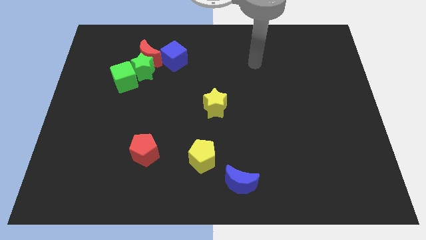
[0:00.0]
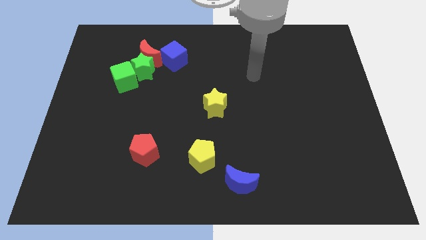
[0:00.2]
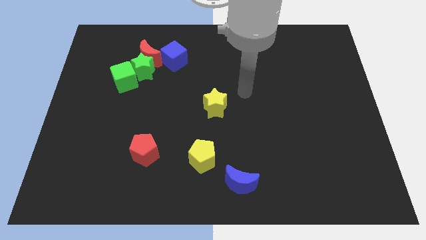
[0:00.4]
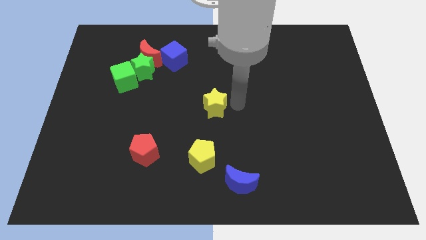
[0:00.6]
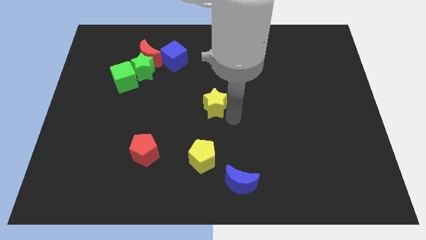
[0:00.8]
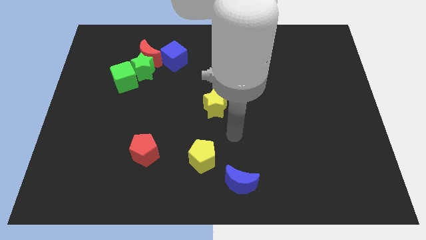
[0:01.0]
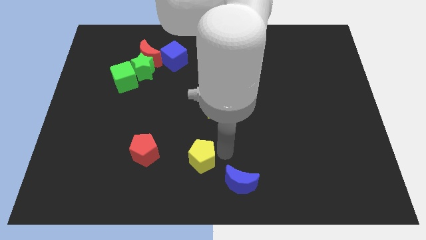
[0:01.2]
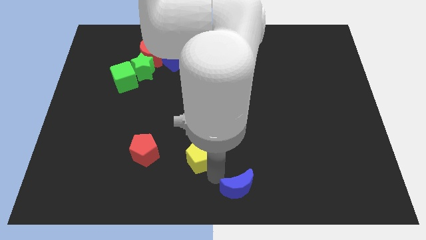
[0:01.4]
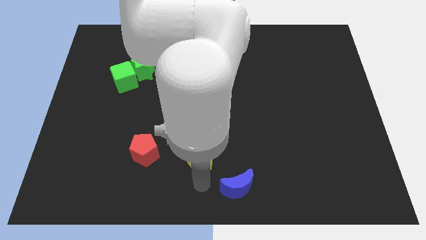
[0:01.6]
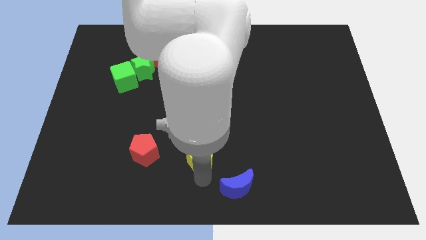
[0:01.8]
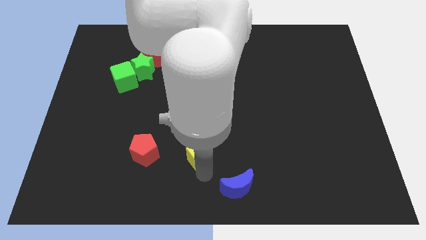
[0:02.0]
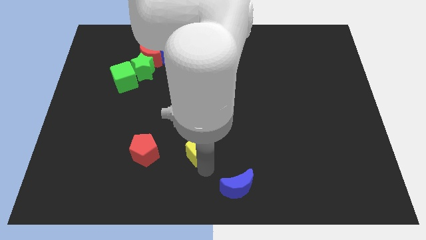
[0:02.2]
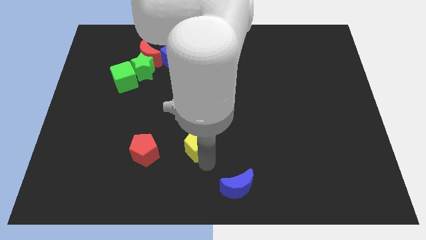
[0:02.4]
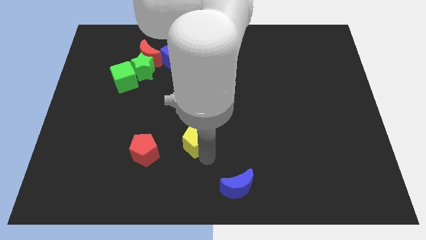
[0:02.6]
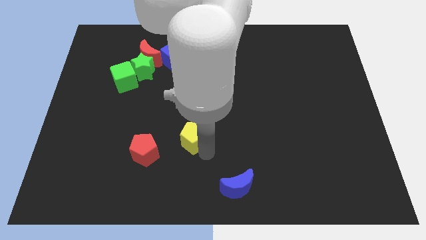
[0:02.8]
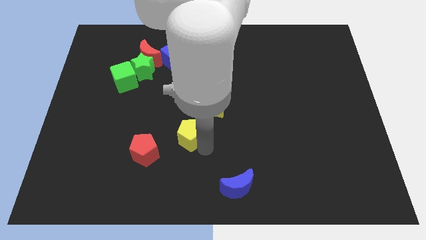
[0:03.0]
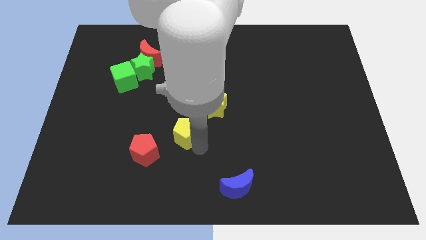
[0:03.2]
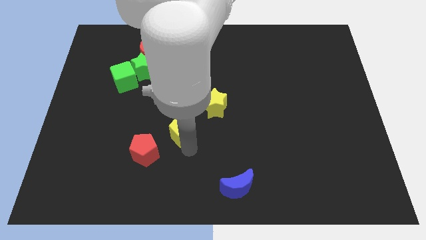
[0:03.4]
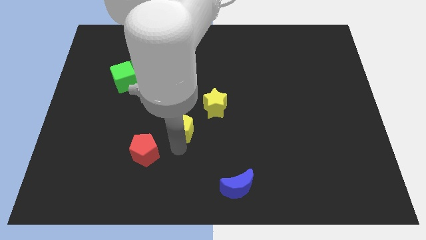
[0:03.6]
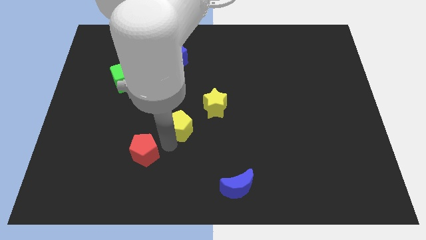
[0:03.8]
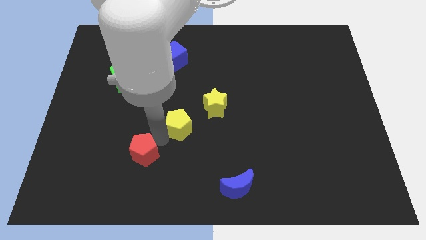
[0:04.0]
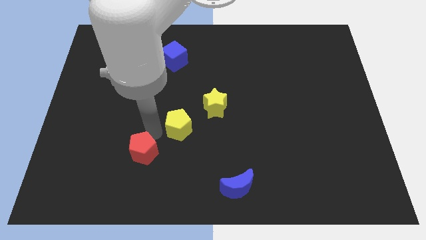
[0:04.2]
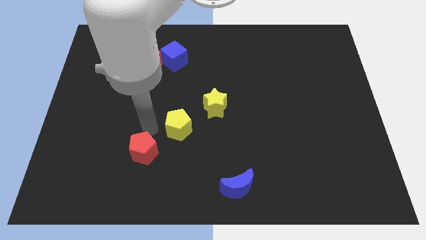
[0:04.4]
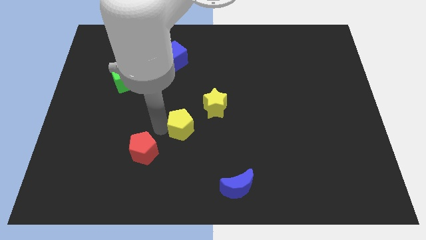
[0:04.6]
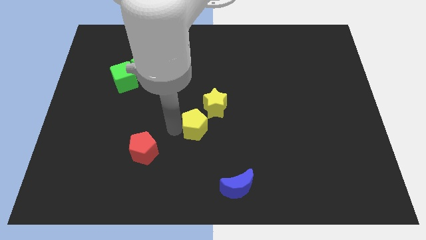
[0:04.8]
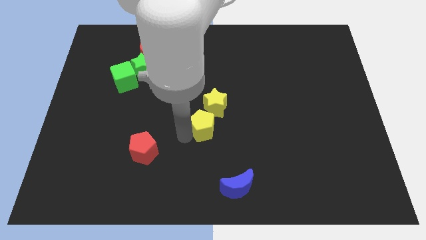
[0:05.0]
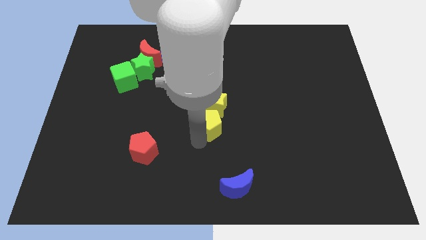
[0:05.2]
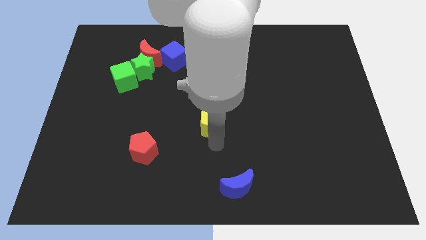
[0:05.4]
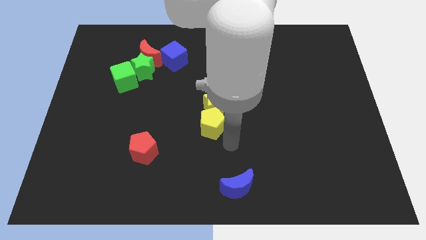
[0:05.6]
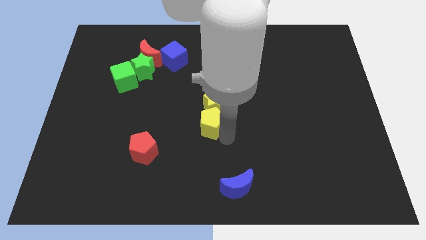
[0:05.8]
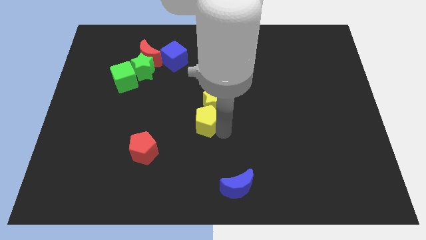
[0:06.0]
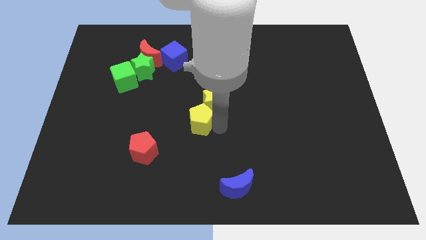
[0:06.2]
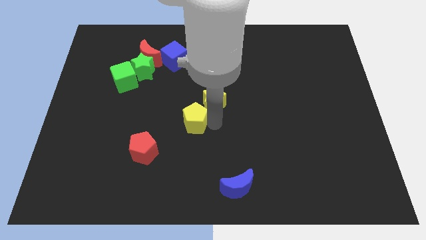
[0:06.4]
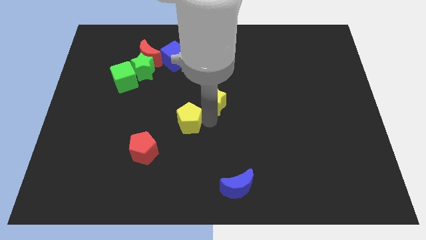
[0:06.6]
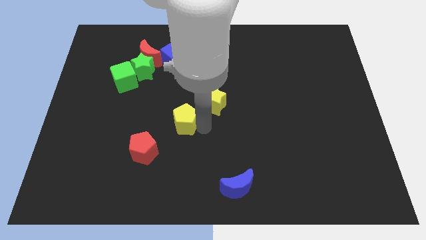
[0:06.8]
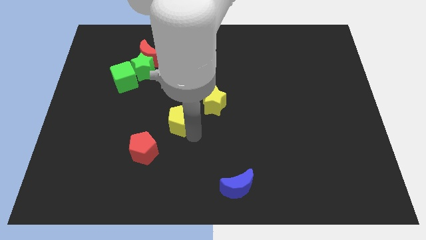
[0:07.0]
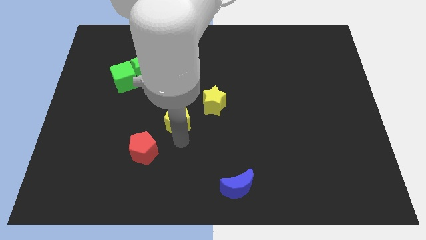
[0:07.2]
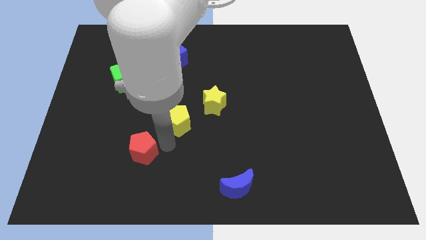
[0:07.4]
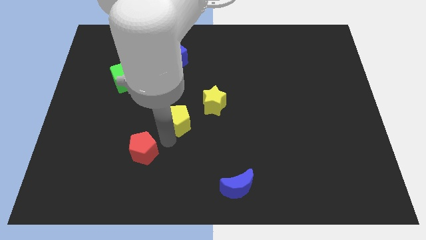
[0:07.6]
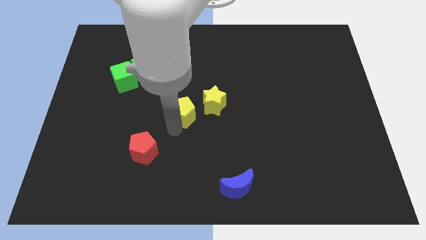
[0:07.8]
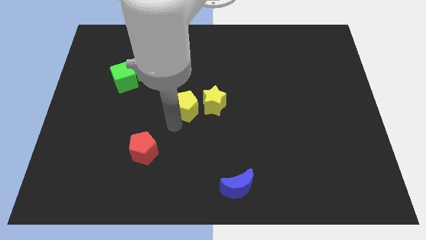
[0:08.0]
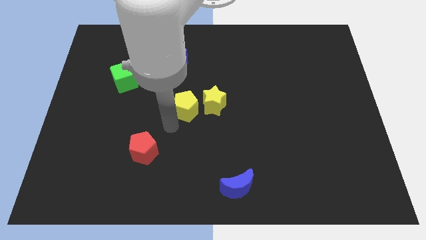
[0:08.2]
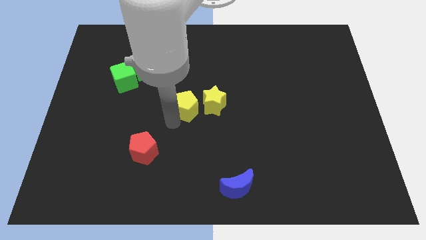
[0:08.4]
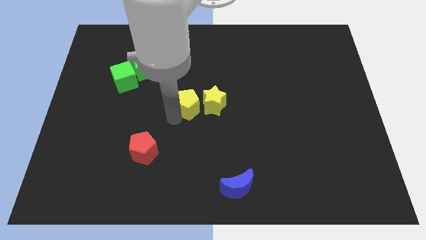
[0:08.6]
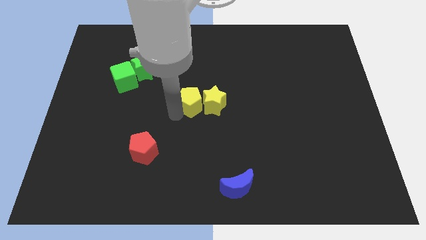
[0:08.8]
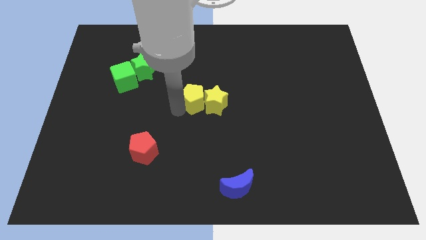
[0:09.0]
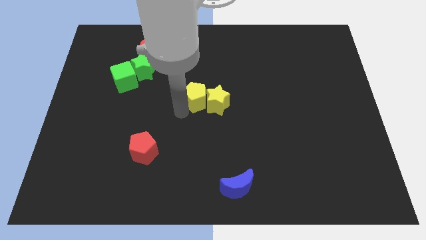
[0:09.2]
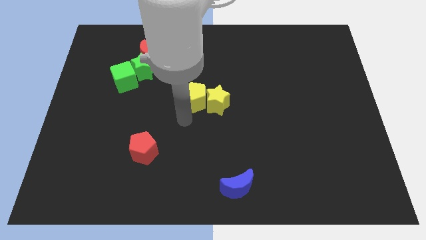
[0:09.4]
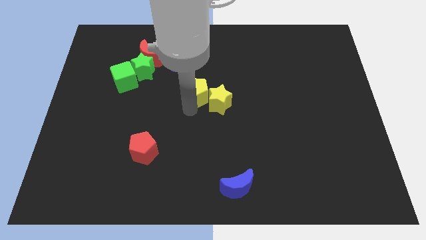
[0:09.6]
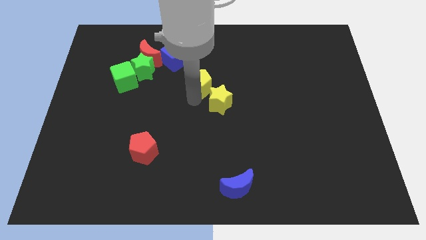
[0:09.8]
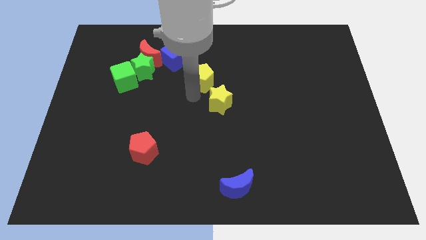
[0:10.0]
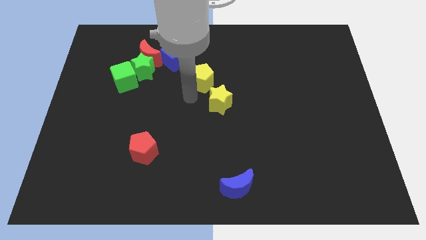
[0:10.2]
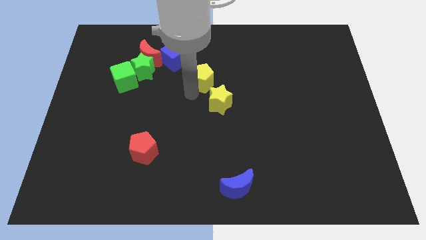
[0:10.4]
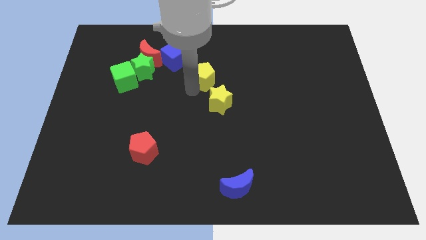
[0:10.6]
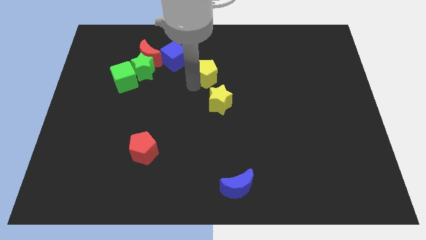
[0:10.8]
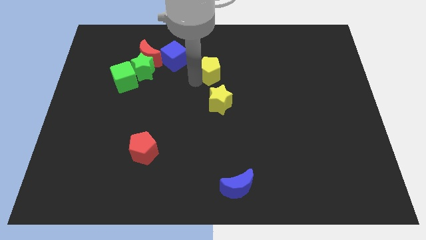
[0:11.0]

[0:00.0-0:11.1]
push the yellow pentagon to the right side of the blue cube
